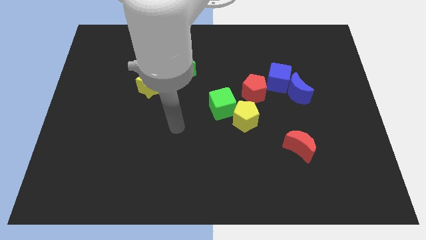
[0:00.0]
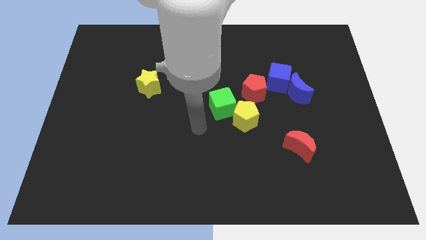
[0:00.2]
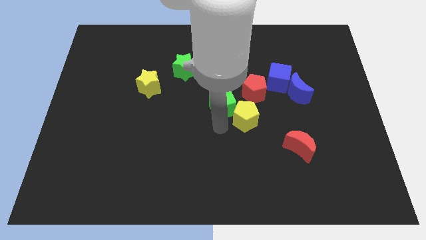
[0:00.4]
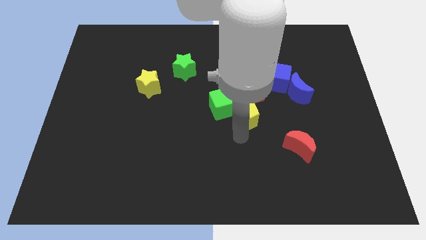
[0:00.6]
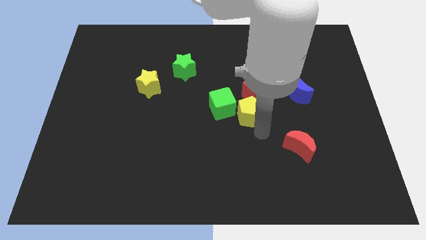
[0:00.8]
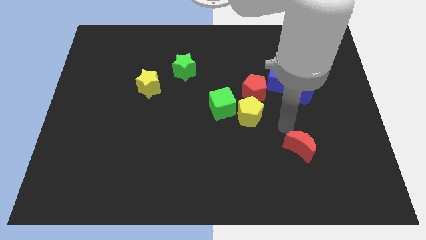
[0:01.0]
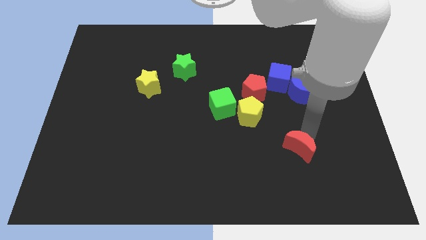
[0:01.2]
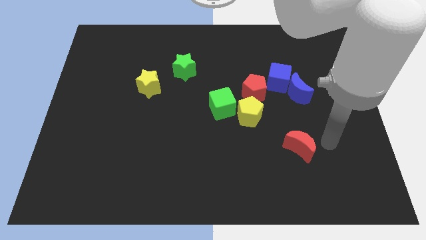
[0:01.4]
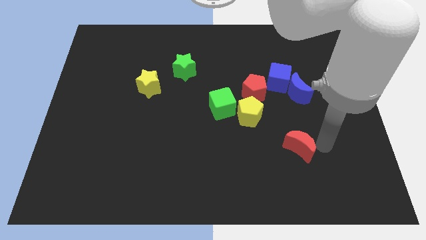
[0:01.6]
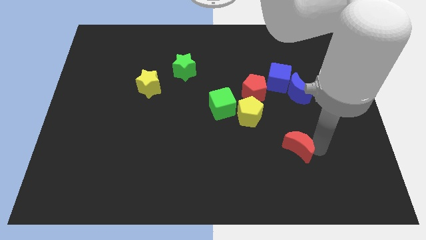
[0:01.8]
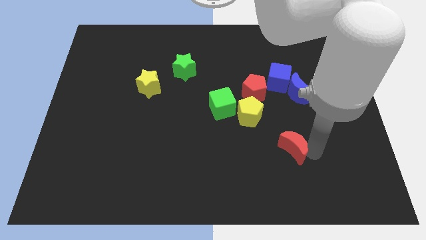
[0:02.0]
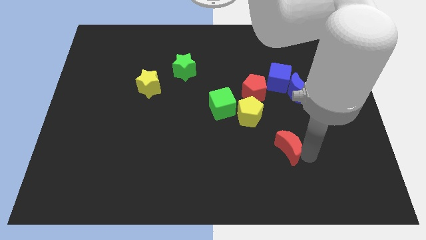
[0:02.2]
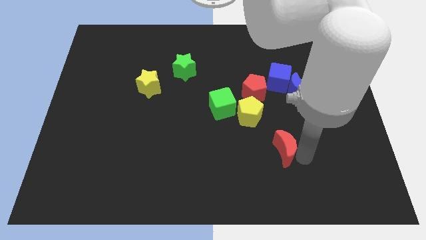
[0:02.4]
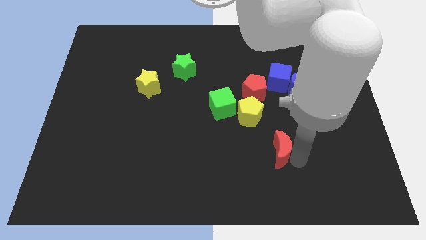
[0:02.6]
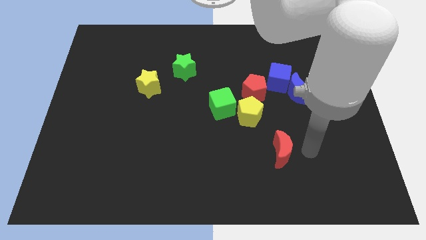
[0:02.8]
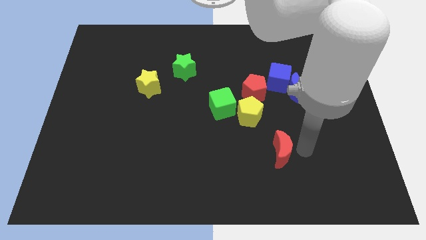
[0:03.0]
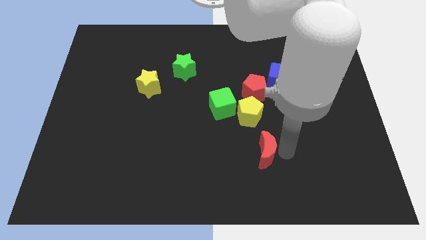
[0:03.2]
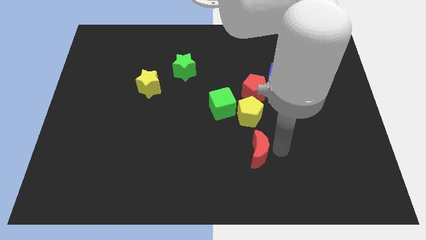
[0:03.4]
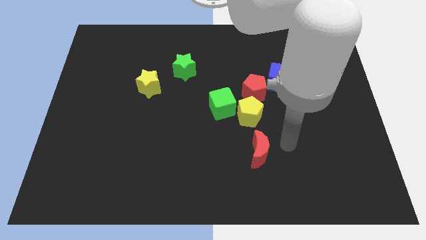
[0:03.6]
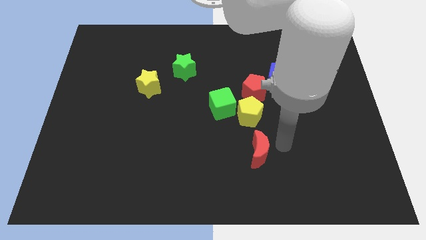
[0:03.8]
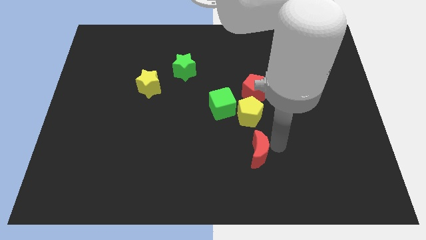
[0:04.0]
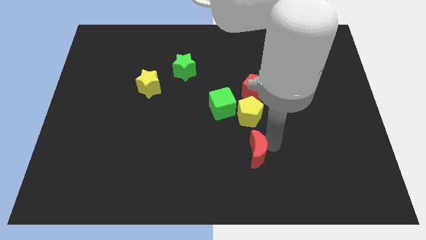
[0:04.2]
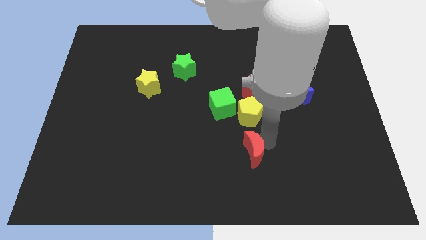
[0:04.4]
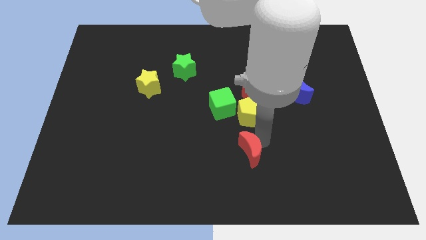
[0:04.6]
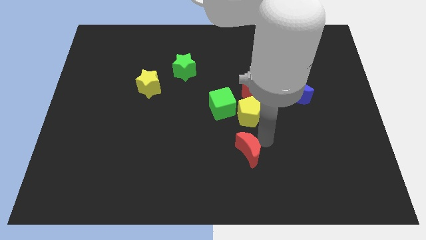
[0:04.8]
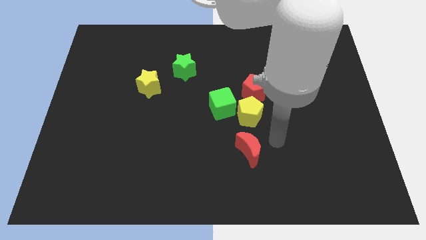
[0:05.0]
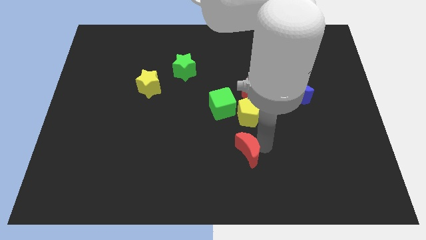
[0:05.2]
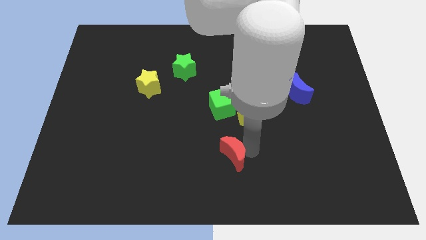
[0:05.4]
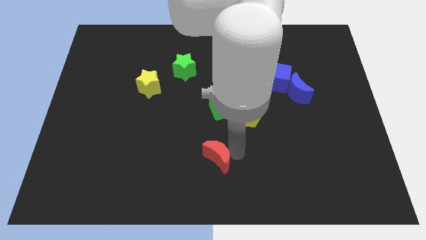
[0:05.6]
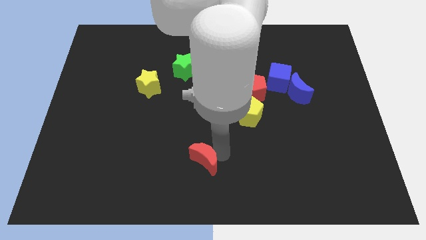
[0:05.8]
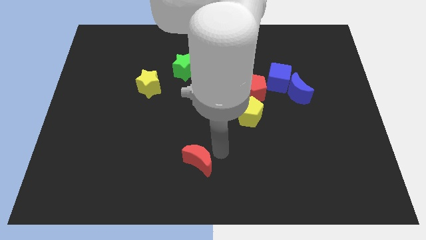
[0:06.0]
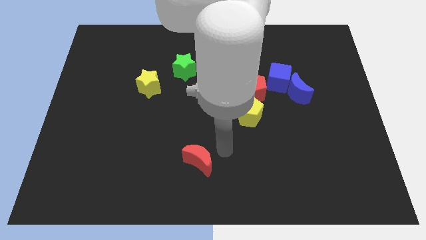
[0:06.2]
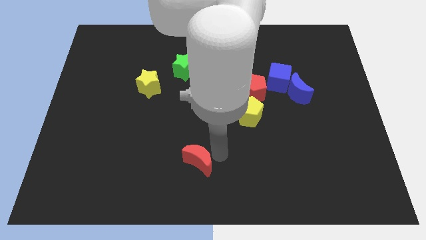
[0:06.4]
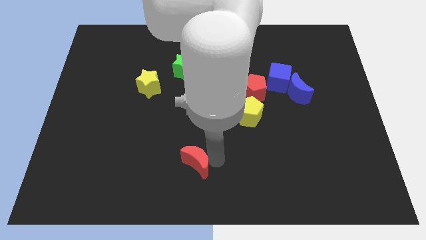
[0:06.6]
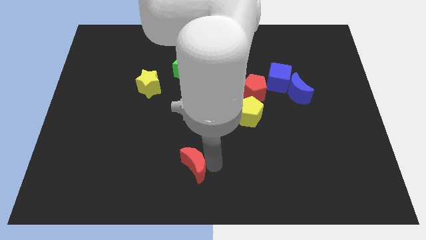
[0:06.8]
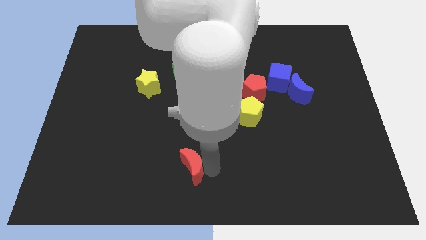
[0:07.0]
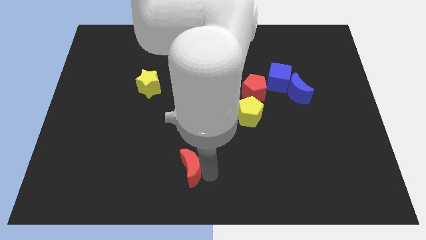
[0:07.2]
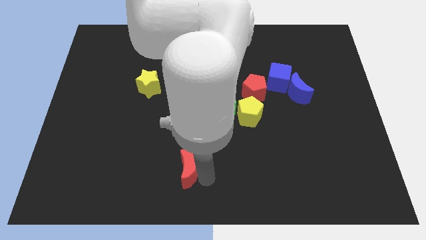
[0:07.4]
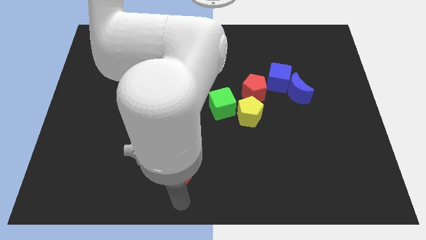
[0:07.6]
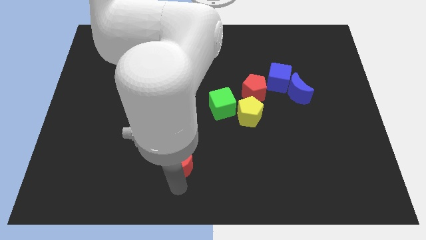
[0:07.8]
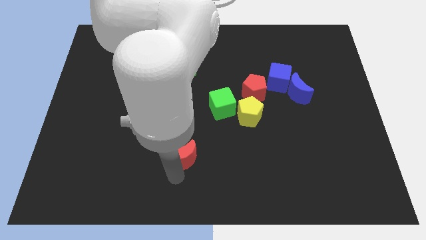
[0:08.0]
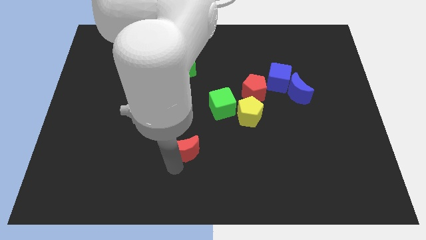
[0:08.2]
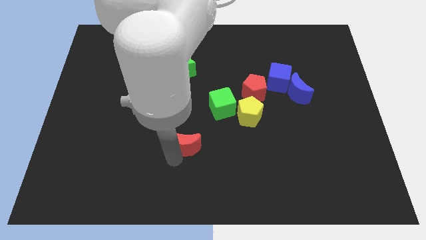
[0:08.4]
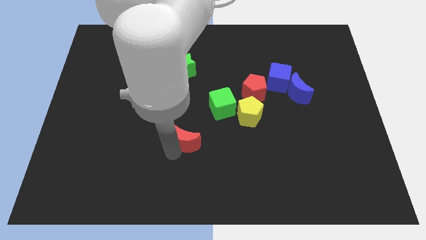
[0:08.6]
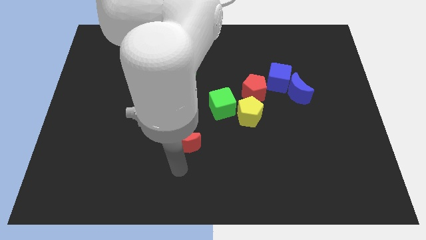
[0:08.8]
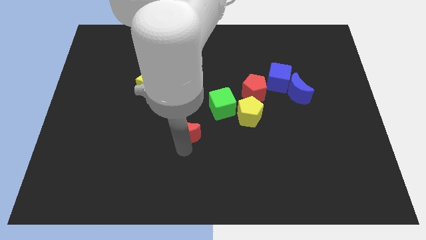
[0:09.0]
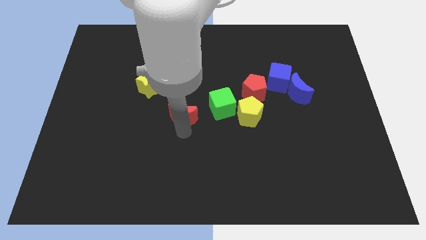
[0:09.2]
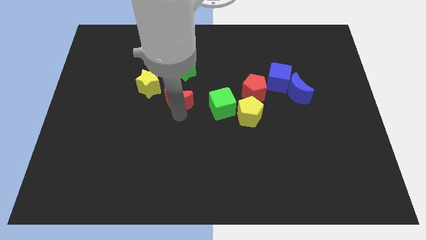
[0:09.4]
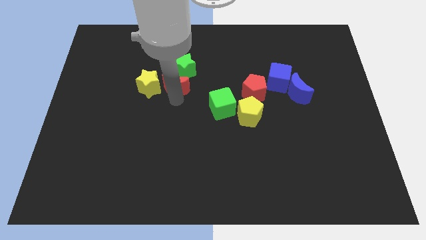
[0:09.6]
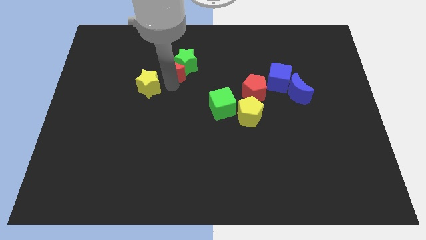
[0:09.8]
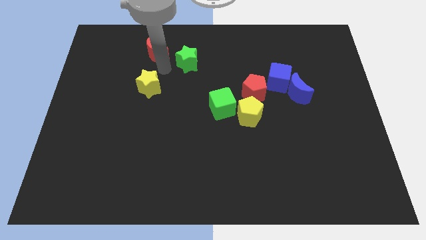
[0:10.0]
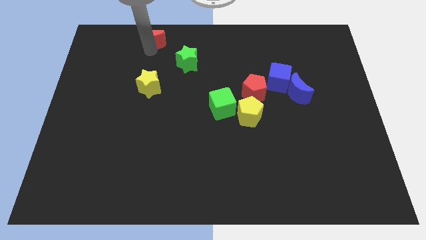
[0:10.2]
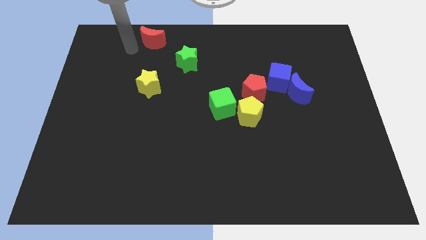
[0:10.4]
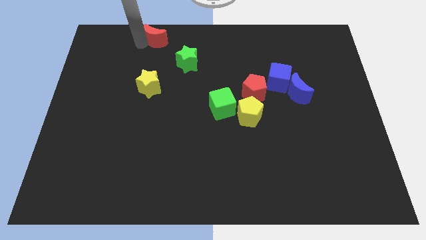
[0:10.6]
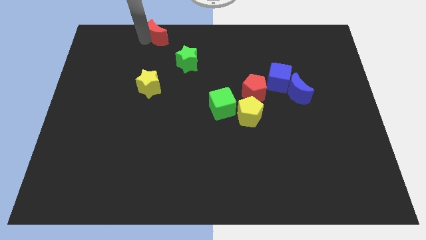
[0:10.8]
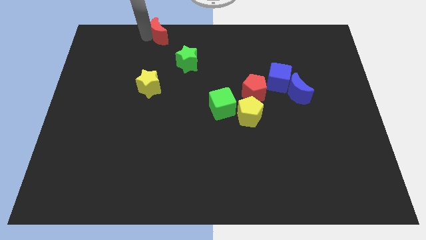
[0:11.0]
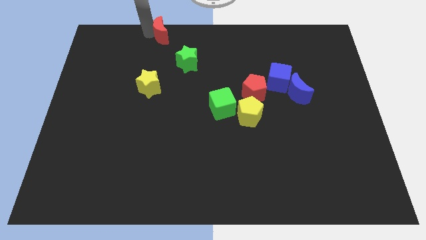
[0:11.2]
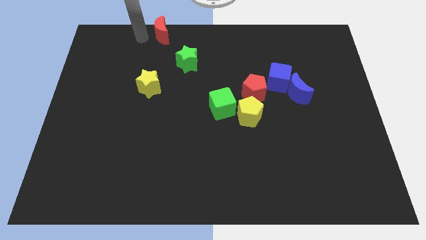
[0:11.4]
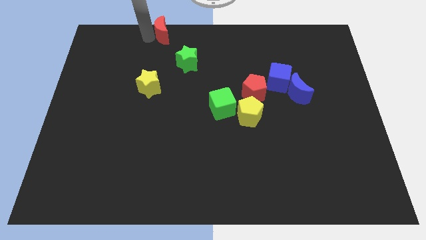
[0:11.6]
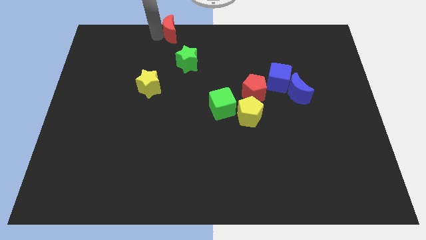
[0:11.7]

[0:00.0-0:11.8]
put the red moon to the towards your base
